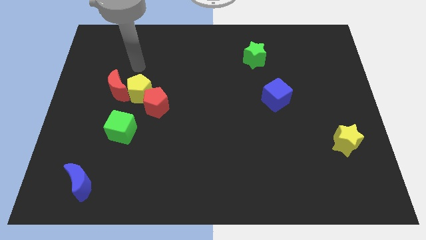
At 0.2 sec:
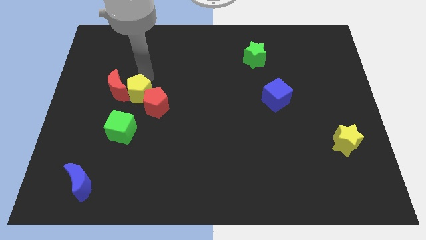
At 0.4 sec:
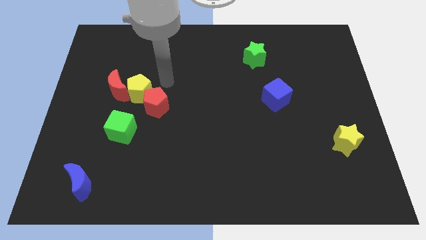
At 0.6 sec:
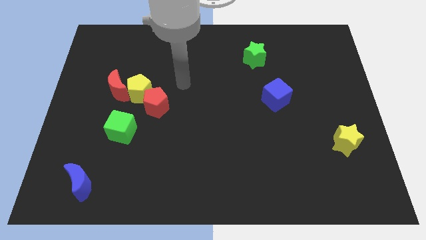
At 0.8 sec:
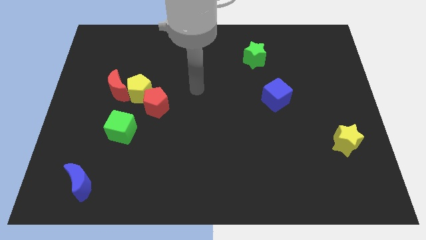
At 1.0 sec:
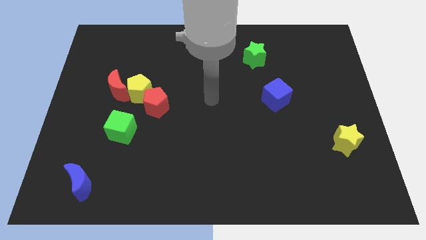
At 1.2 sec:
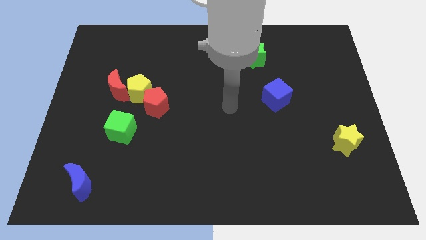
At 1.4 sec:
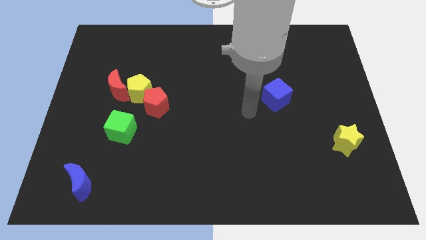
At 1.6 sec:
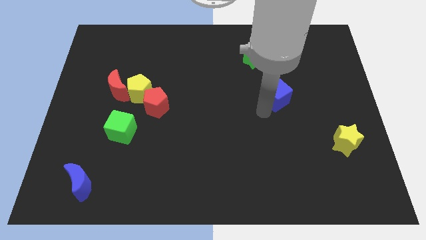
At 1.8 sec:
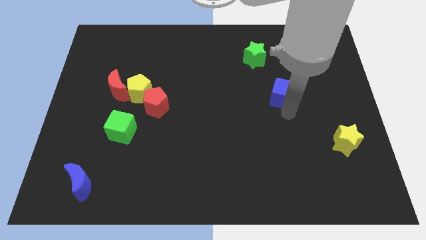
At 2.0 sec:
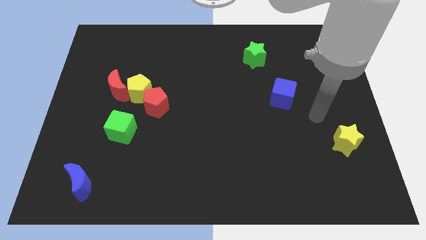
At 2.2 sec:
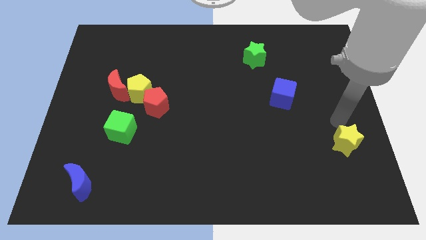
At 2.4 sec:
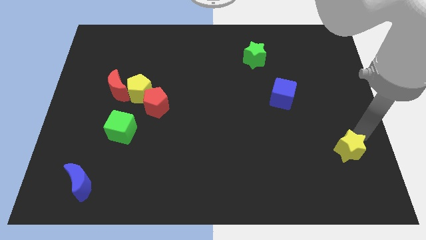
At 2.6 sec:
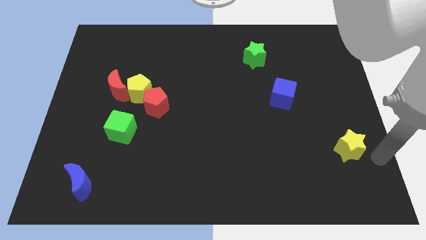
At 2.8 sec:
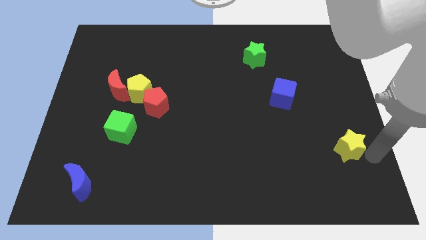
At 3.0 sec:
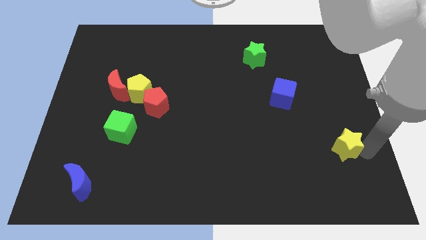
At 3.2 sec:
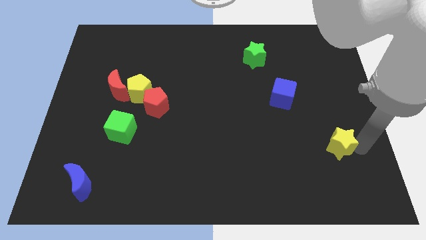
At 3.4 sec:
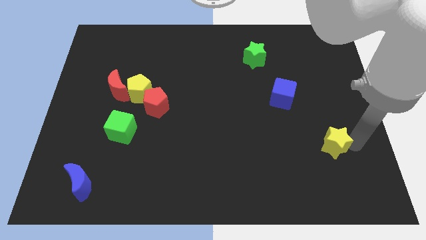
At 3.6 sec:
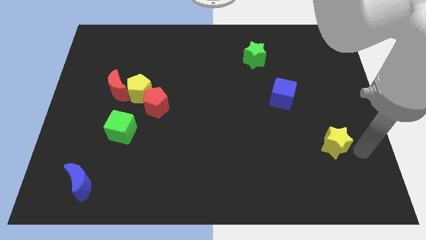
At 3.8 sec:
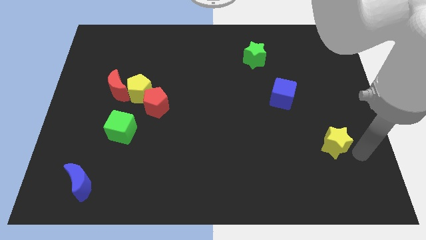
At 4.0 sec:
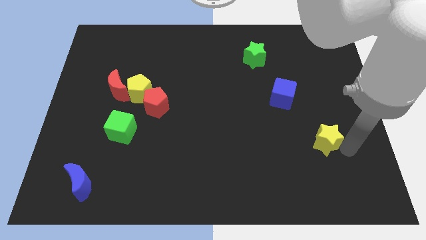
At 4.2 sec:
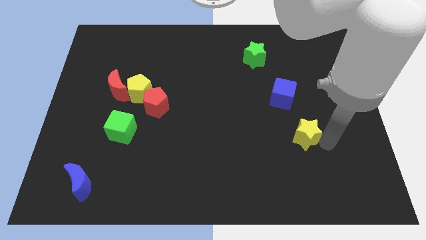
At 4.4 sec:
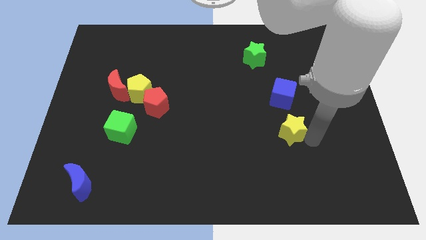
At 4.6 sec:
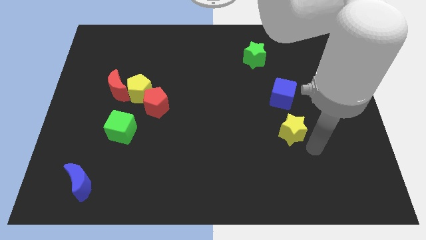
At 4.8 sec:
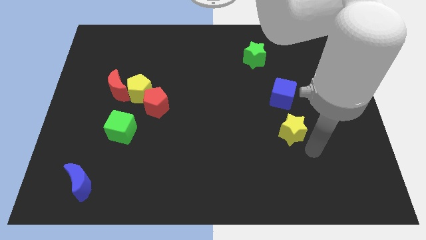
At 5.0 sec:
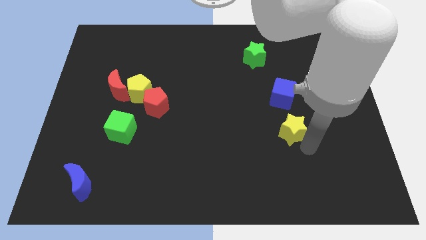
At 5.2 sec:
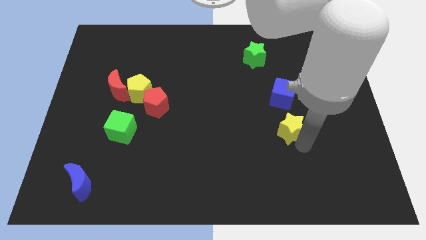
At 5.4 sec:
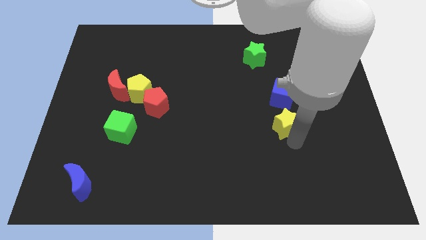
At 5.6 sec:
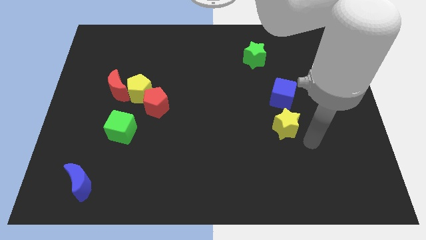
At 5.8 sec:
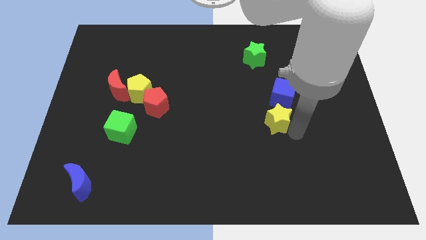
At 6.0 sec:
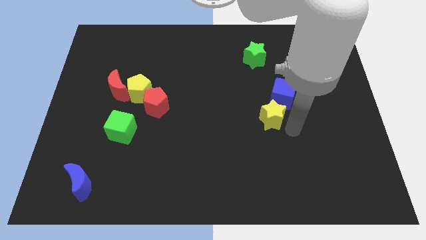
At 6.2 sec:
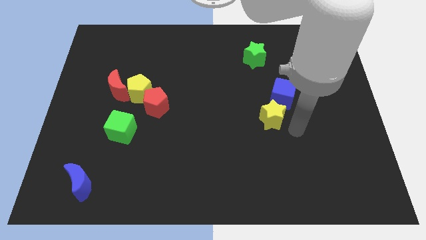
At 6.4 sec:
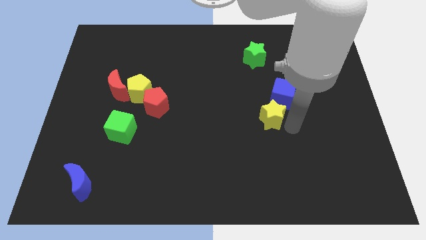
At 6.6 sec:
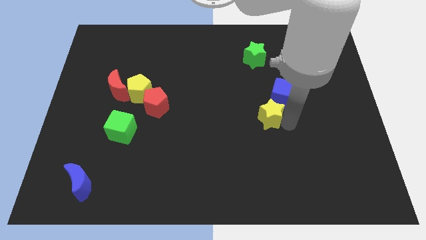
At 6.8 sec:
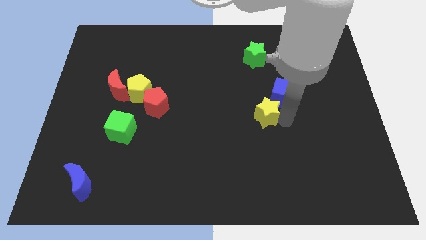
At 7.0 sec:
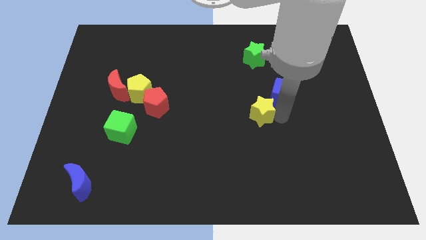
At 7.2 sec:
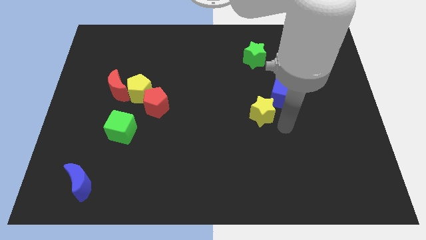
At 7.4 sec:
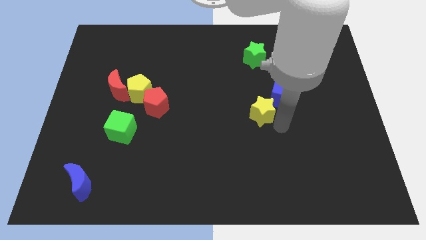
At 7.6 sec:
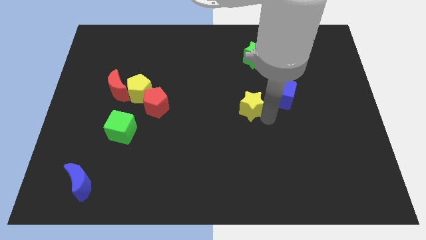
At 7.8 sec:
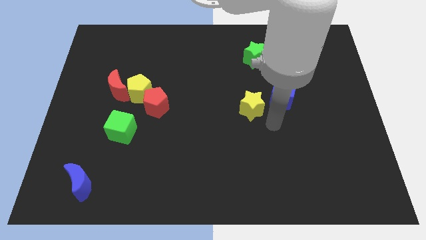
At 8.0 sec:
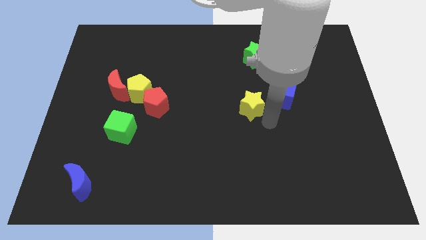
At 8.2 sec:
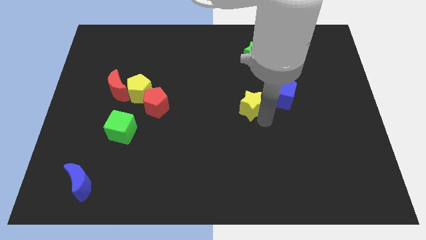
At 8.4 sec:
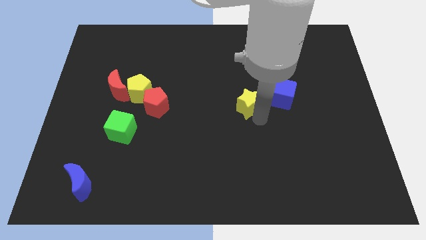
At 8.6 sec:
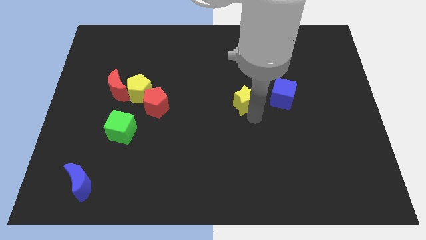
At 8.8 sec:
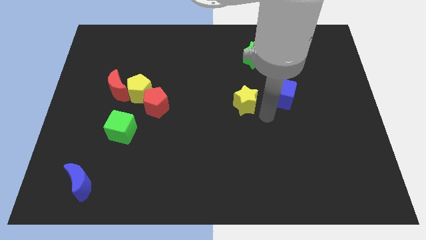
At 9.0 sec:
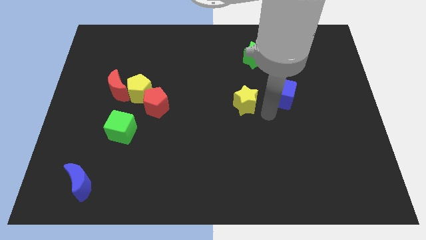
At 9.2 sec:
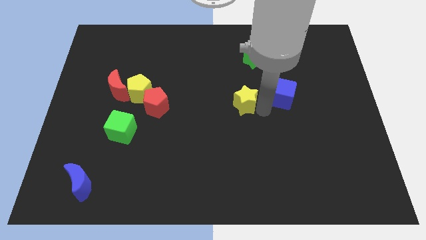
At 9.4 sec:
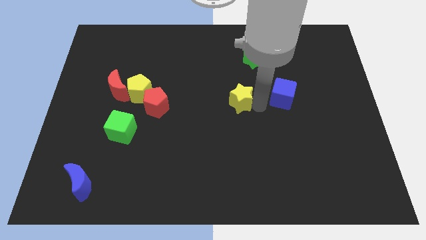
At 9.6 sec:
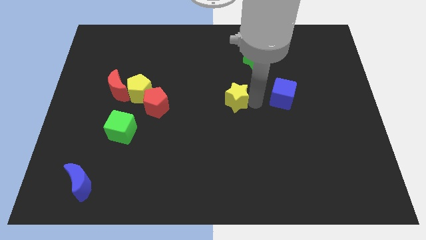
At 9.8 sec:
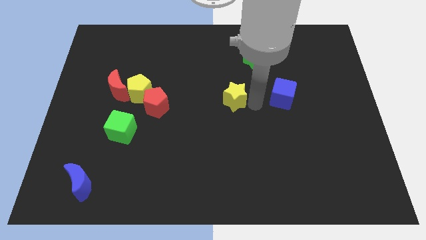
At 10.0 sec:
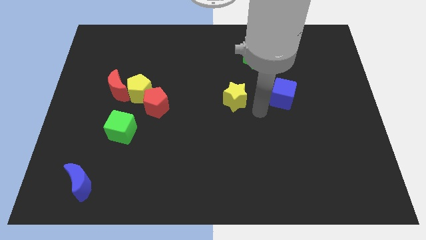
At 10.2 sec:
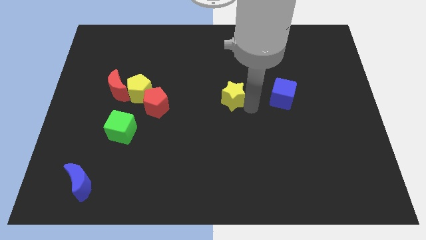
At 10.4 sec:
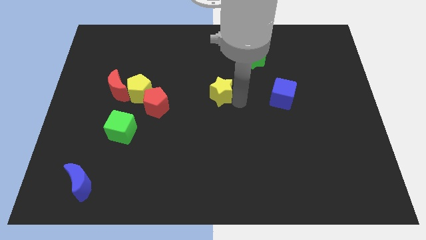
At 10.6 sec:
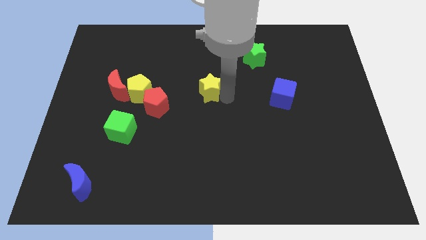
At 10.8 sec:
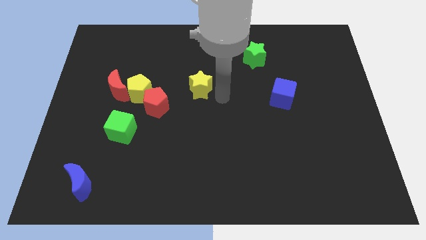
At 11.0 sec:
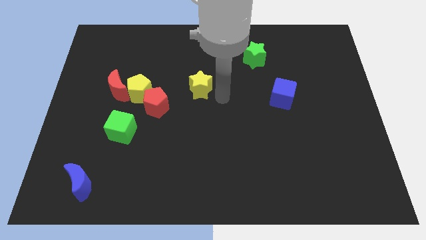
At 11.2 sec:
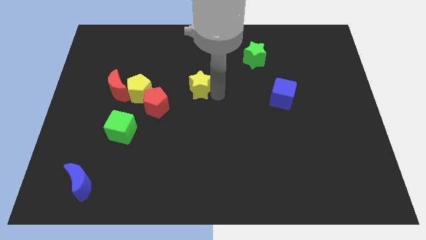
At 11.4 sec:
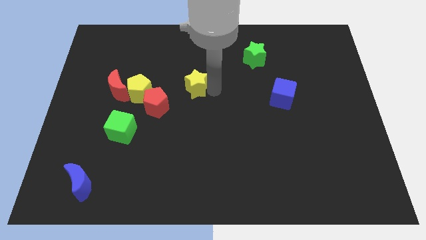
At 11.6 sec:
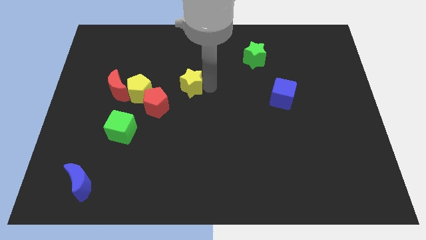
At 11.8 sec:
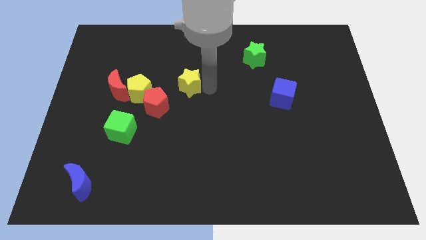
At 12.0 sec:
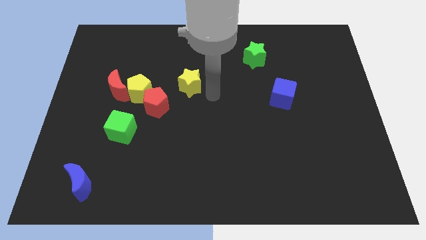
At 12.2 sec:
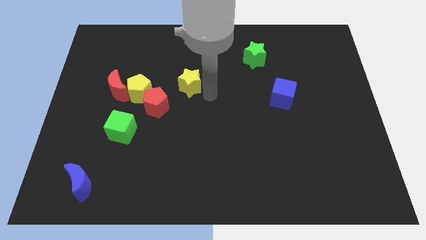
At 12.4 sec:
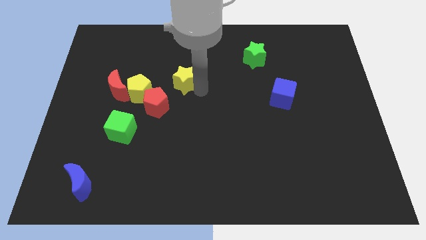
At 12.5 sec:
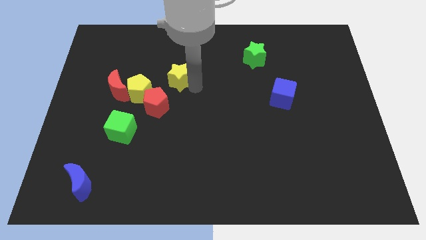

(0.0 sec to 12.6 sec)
move the yellow star to the top right side of the yellow pentagon

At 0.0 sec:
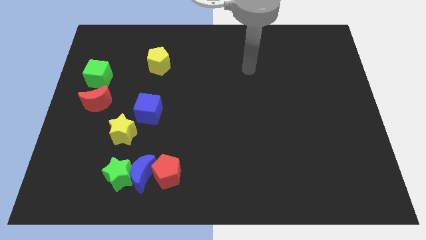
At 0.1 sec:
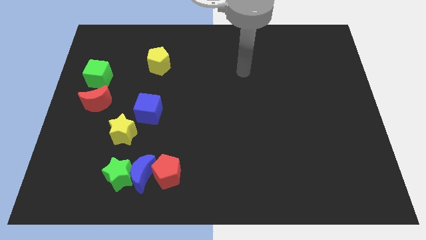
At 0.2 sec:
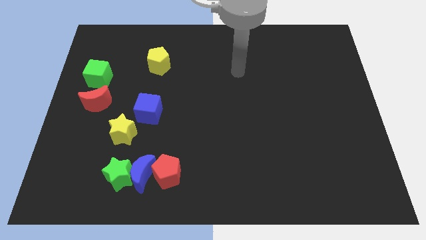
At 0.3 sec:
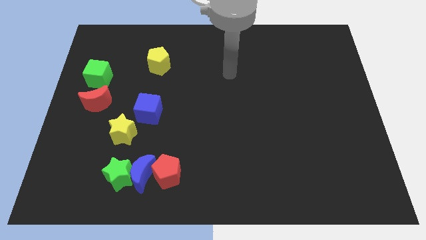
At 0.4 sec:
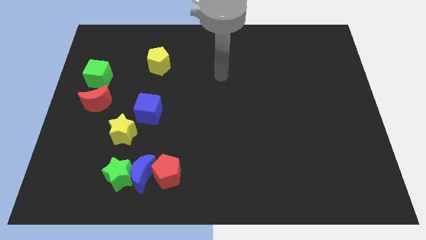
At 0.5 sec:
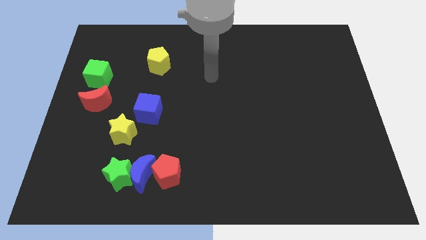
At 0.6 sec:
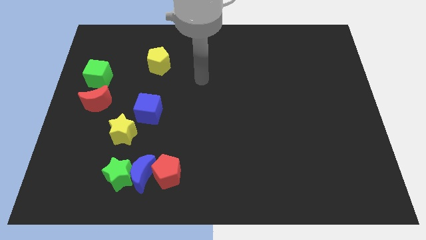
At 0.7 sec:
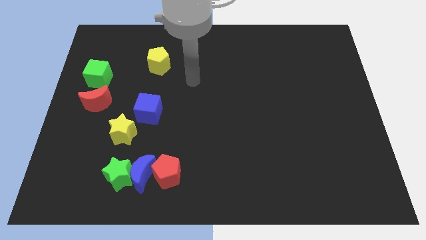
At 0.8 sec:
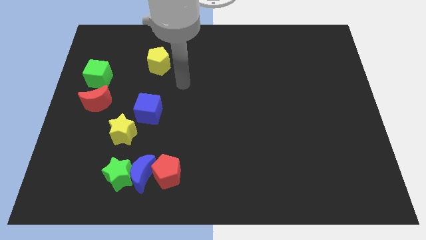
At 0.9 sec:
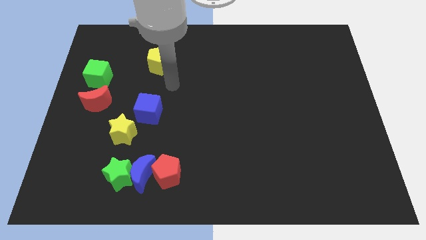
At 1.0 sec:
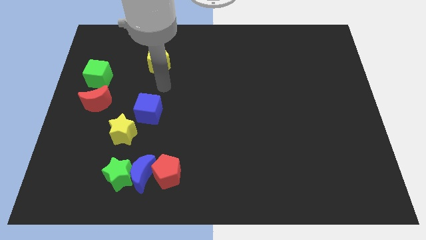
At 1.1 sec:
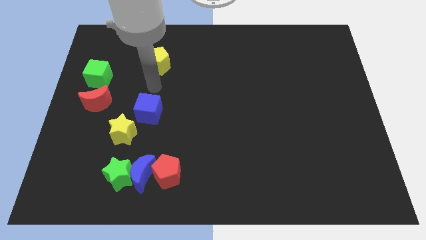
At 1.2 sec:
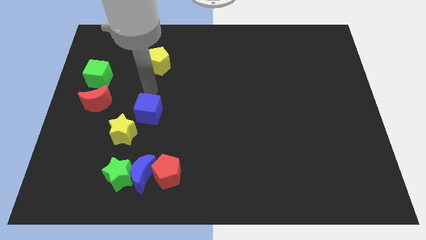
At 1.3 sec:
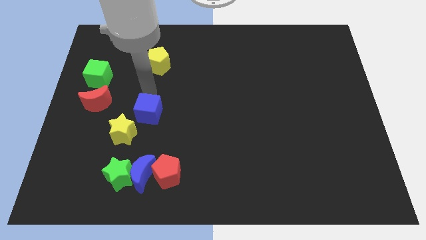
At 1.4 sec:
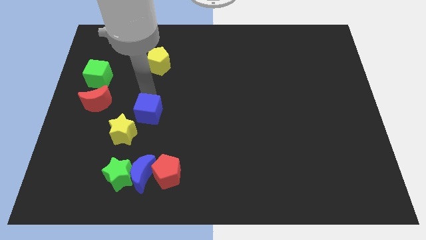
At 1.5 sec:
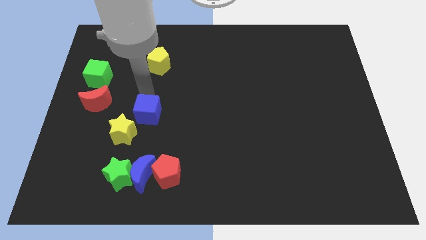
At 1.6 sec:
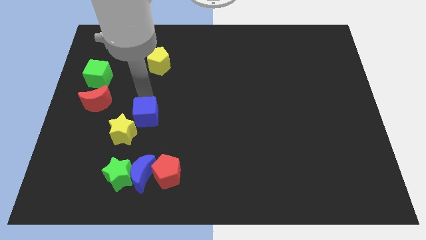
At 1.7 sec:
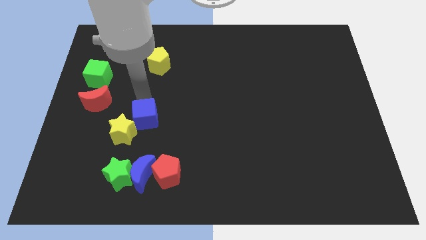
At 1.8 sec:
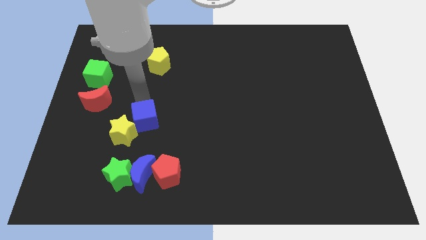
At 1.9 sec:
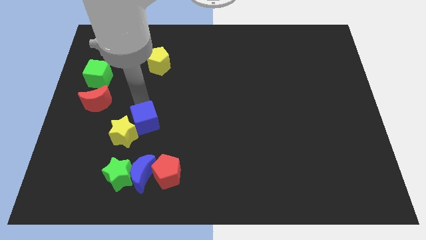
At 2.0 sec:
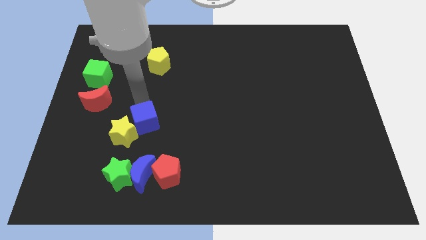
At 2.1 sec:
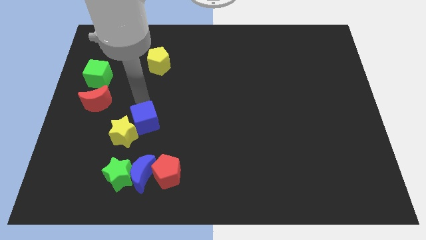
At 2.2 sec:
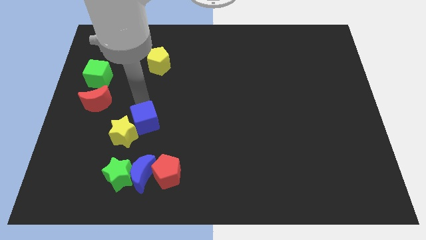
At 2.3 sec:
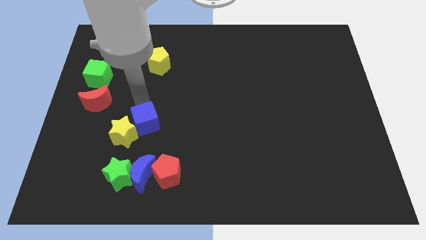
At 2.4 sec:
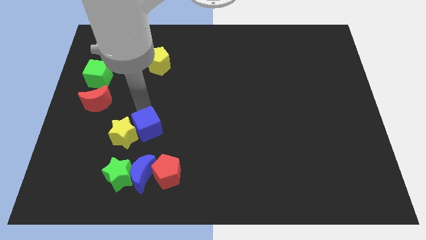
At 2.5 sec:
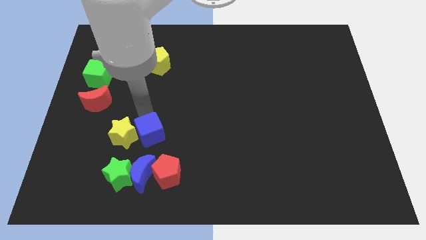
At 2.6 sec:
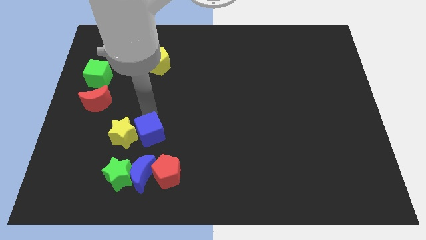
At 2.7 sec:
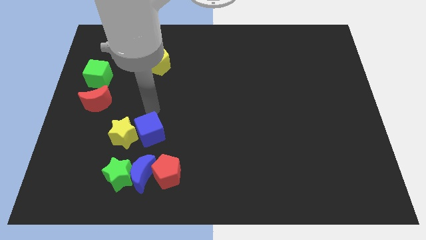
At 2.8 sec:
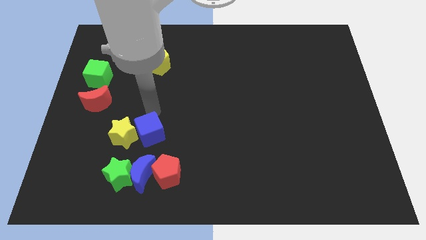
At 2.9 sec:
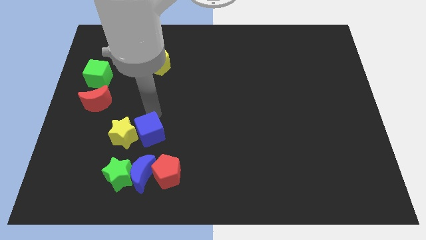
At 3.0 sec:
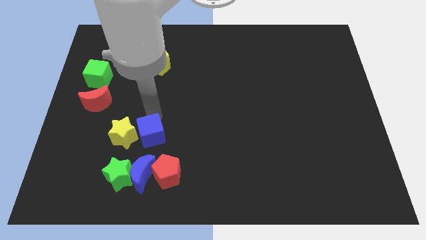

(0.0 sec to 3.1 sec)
slide the blue cube diagonally up and to the right of the green star
